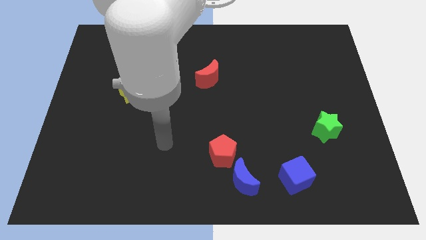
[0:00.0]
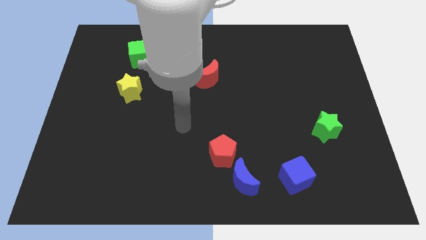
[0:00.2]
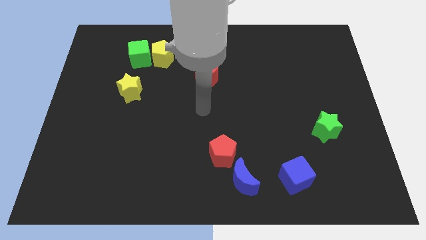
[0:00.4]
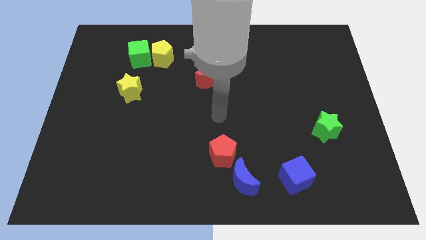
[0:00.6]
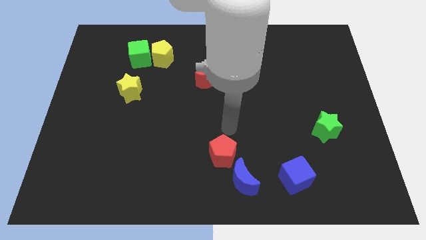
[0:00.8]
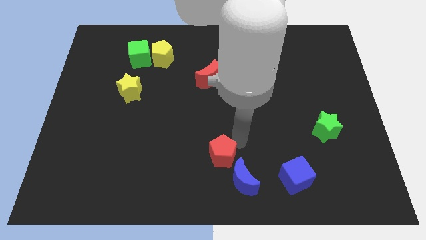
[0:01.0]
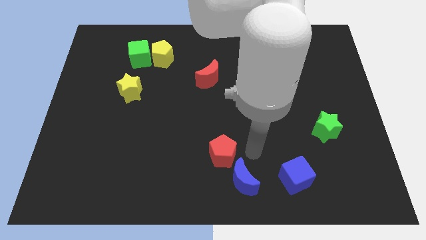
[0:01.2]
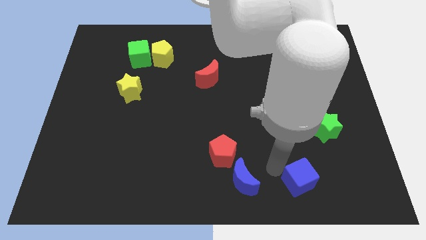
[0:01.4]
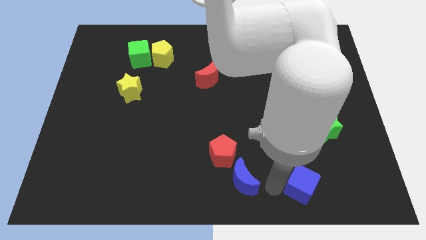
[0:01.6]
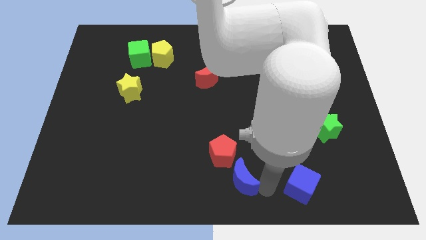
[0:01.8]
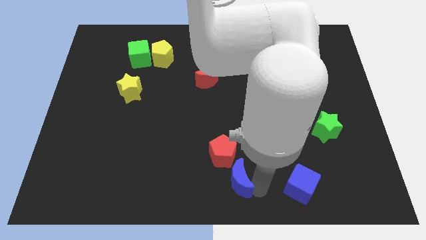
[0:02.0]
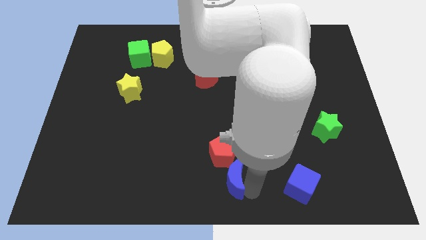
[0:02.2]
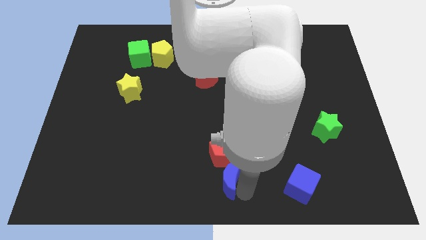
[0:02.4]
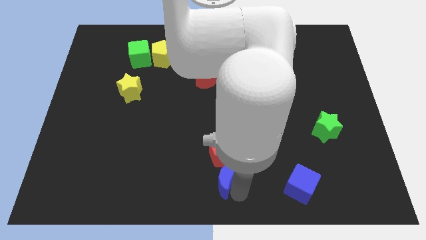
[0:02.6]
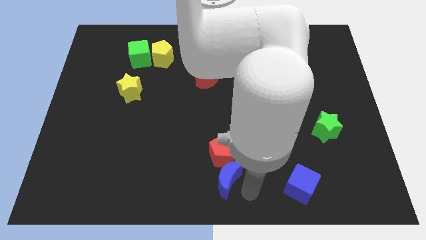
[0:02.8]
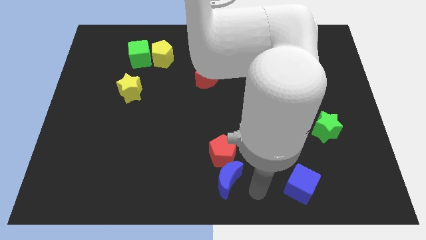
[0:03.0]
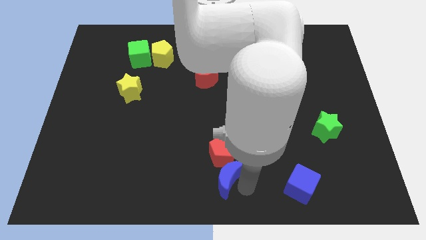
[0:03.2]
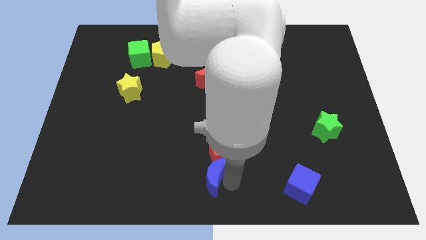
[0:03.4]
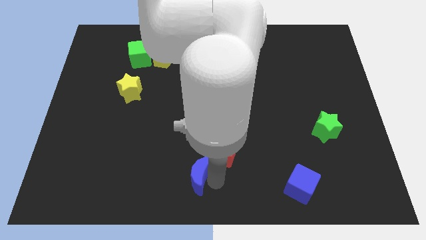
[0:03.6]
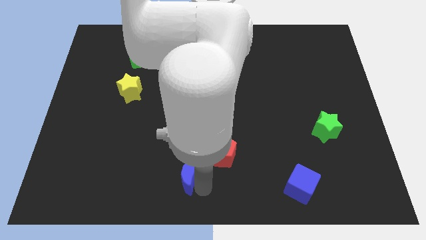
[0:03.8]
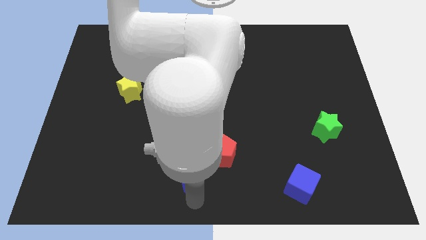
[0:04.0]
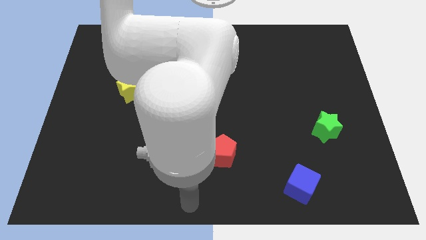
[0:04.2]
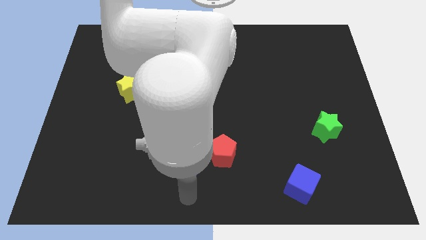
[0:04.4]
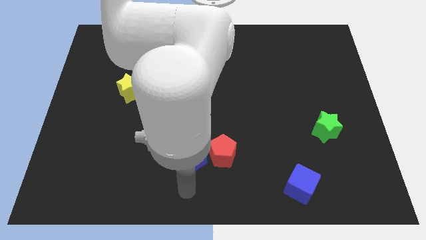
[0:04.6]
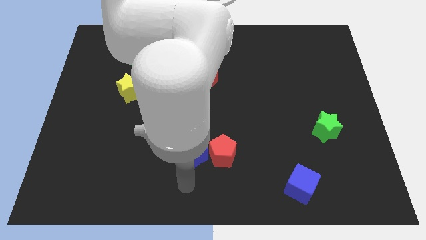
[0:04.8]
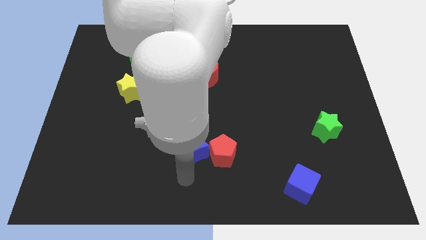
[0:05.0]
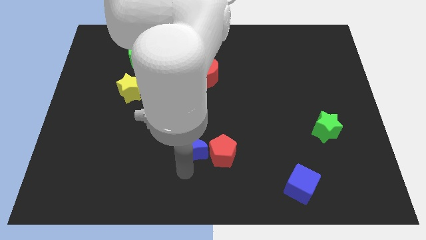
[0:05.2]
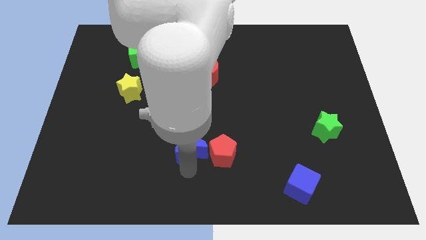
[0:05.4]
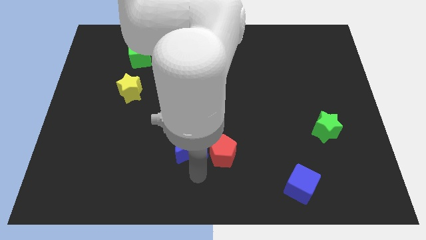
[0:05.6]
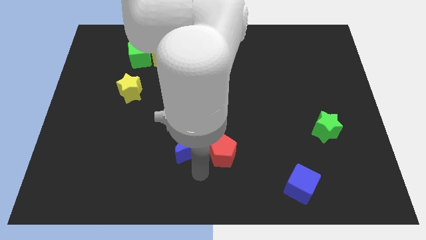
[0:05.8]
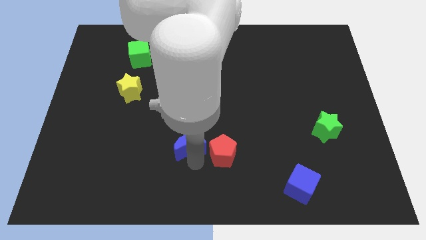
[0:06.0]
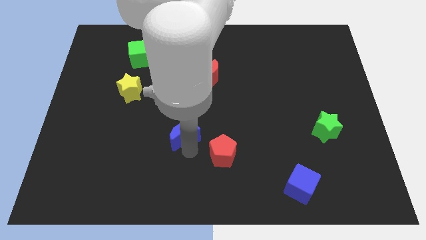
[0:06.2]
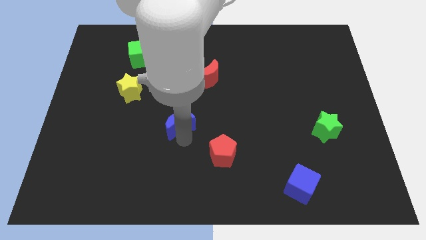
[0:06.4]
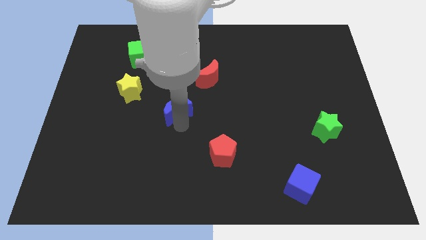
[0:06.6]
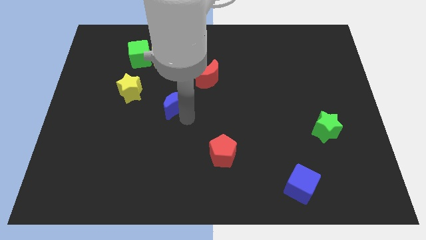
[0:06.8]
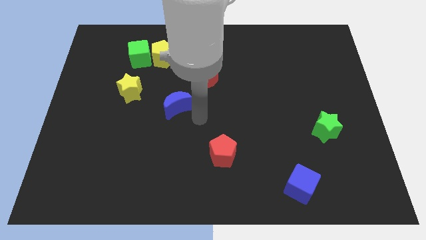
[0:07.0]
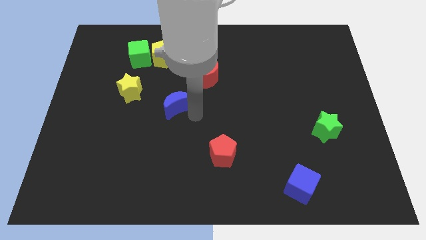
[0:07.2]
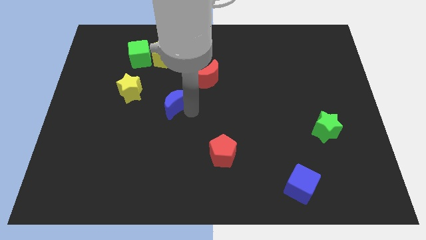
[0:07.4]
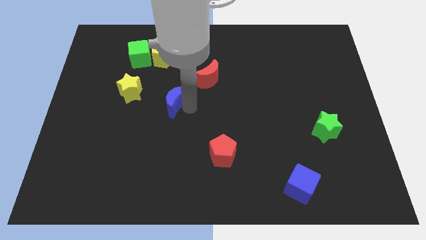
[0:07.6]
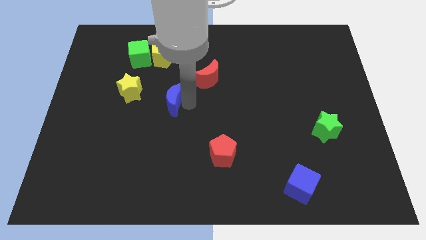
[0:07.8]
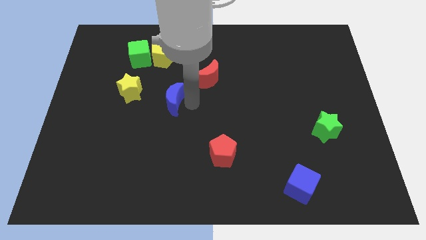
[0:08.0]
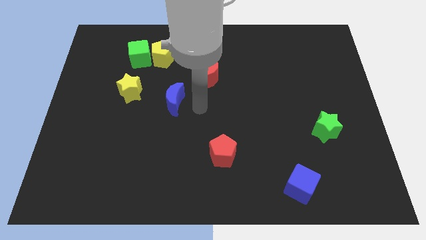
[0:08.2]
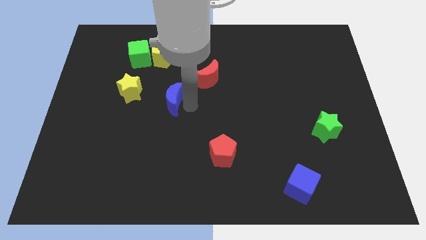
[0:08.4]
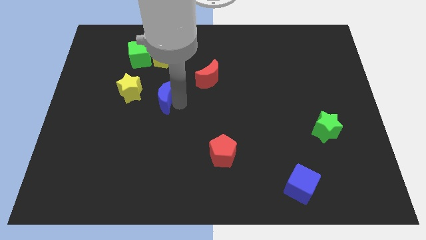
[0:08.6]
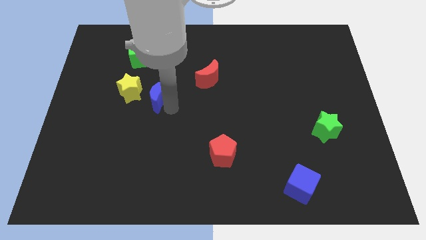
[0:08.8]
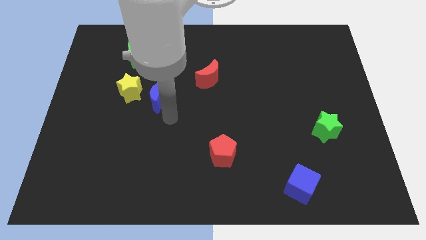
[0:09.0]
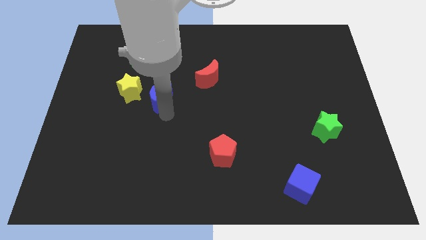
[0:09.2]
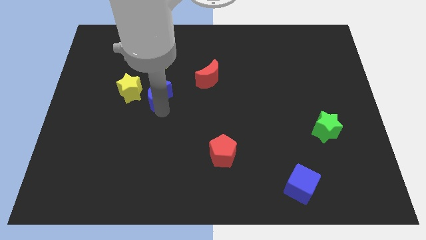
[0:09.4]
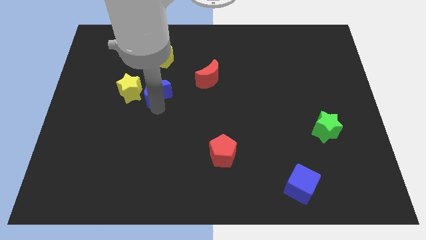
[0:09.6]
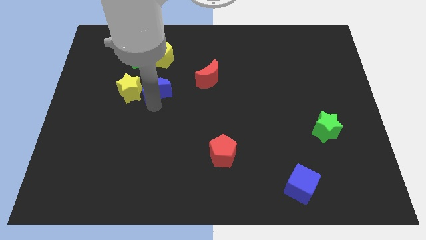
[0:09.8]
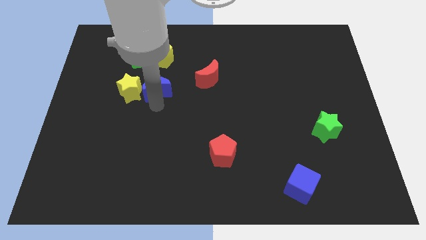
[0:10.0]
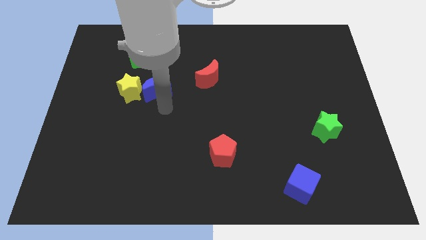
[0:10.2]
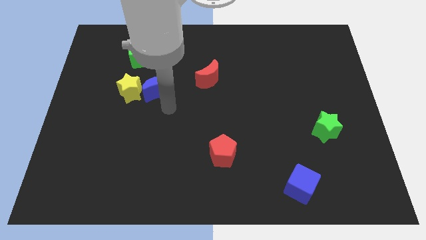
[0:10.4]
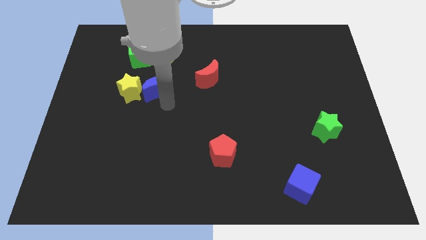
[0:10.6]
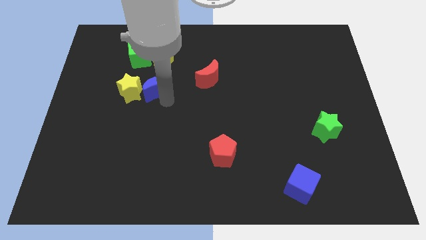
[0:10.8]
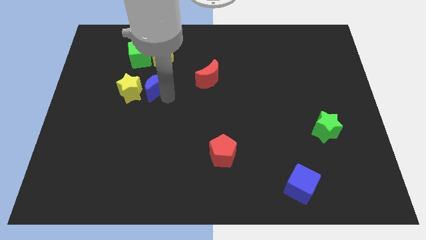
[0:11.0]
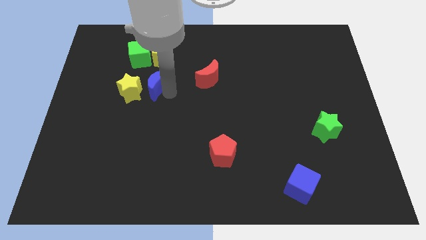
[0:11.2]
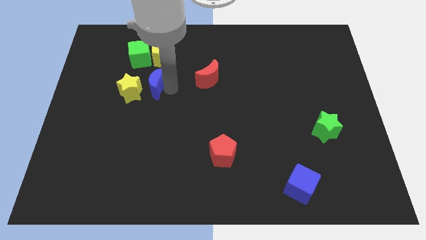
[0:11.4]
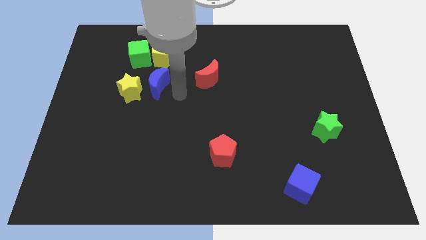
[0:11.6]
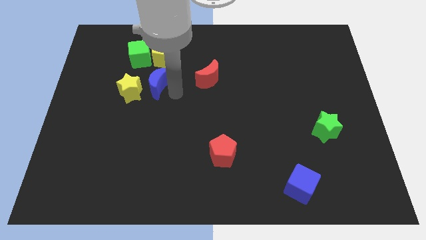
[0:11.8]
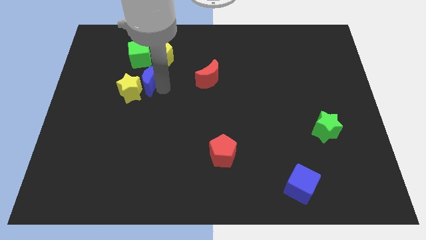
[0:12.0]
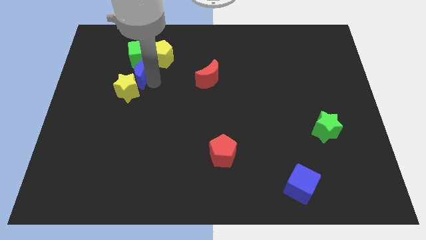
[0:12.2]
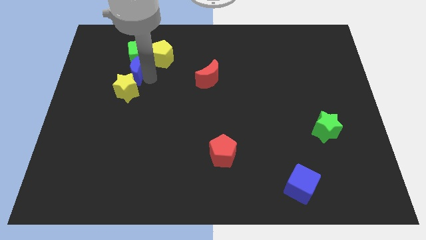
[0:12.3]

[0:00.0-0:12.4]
put the blue moon to the bottom left of the green cube

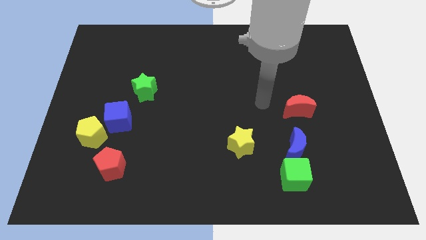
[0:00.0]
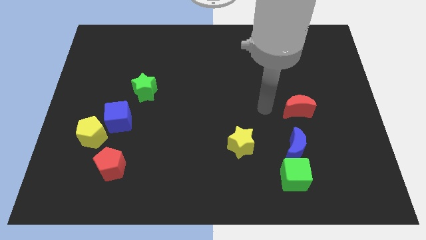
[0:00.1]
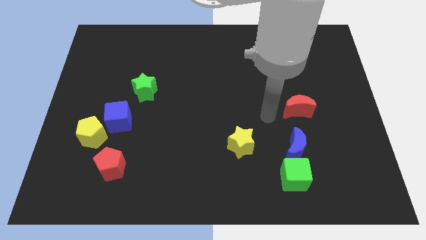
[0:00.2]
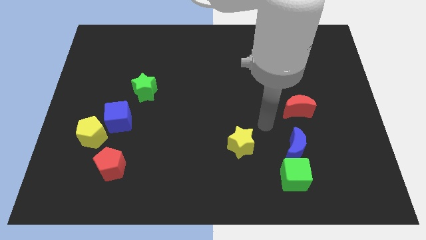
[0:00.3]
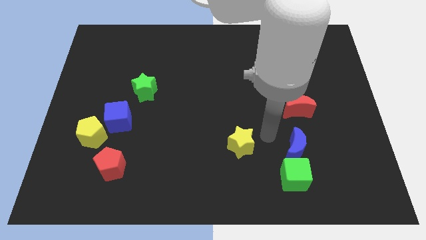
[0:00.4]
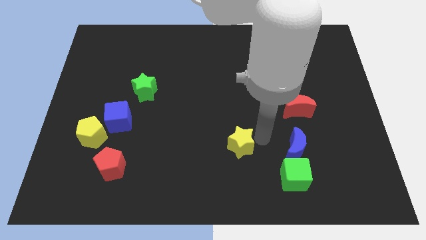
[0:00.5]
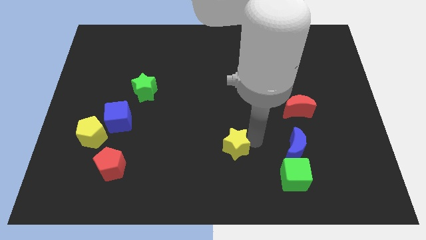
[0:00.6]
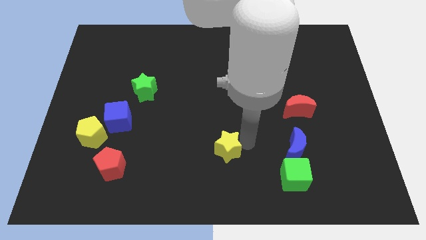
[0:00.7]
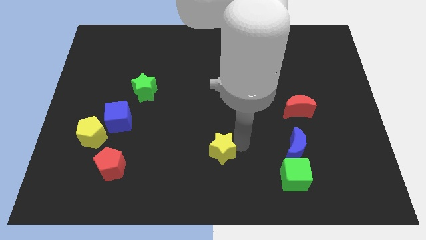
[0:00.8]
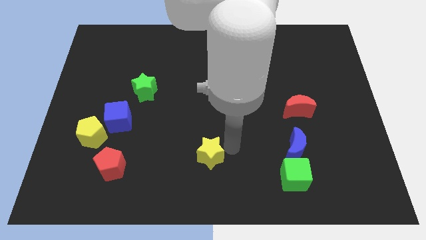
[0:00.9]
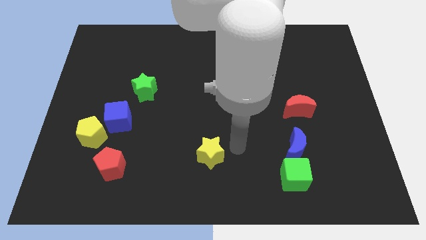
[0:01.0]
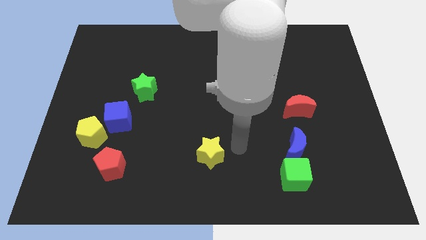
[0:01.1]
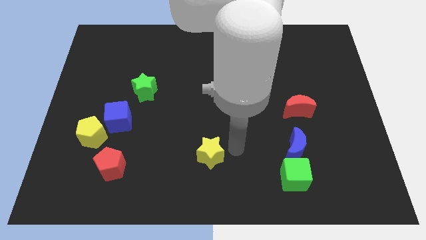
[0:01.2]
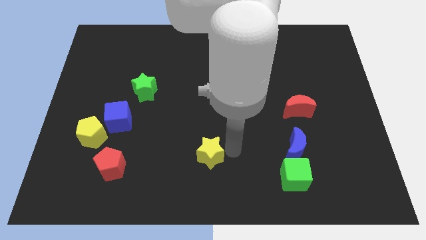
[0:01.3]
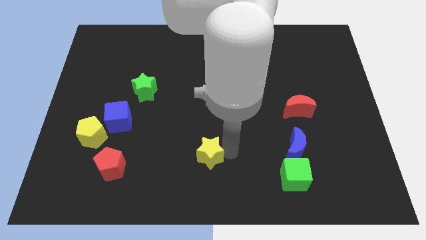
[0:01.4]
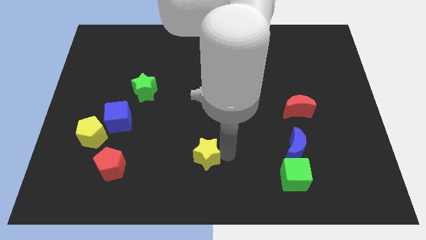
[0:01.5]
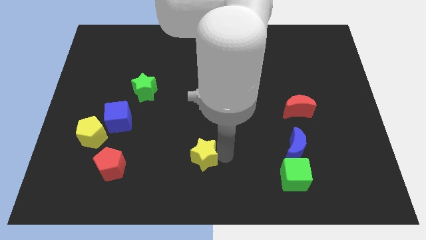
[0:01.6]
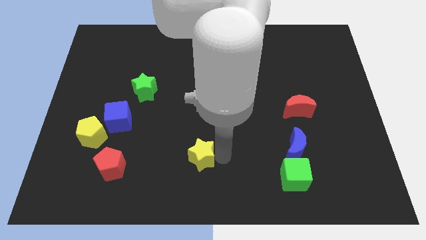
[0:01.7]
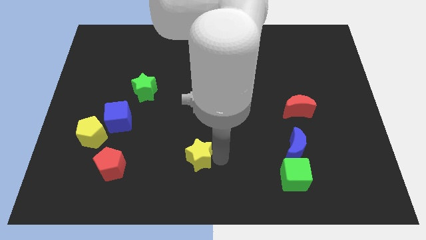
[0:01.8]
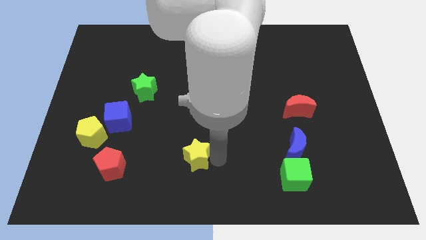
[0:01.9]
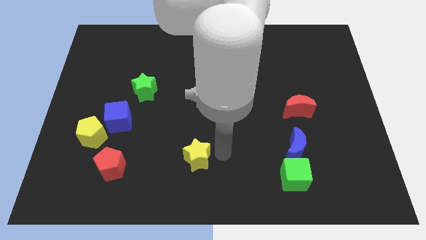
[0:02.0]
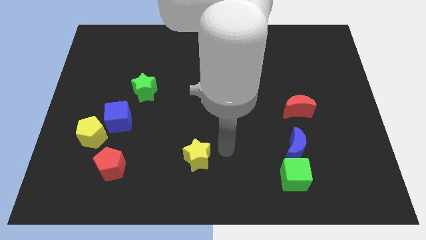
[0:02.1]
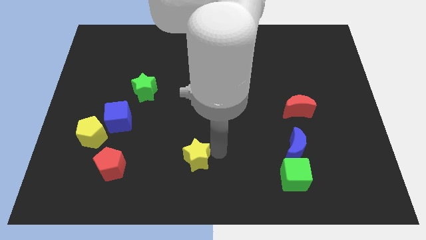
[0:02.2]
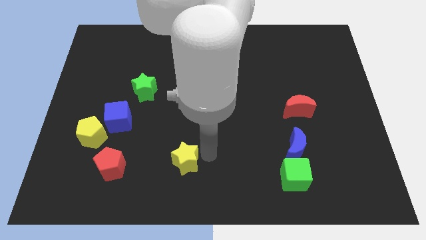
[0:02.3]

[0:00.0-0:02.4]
push the yellow star right of the red pentagon
